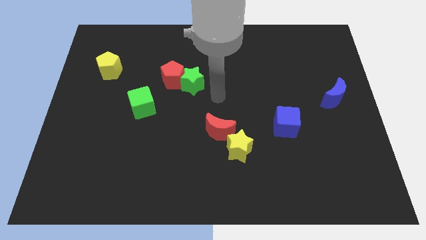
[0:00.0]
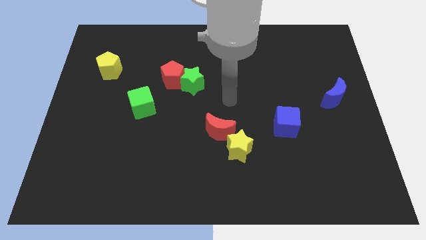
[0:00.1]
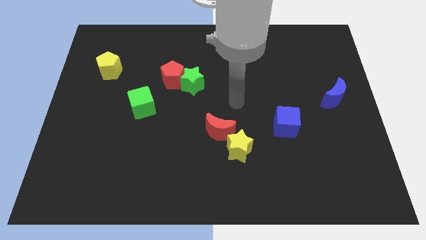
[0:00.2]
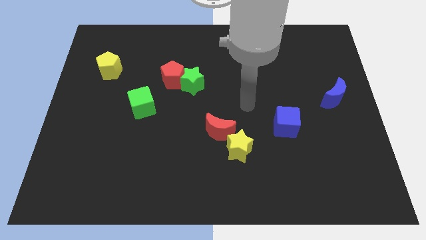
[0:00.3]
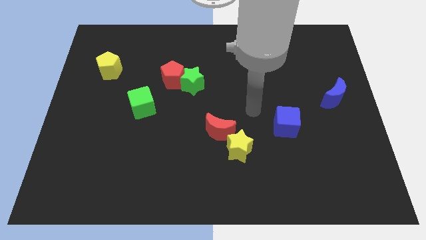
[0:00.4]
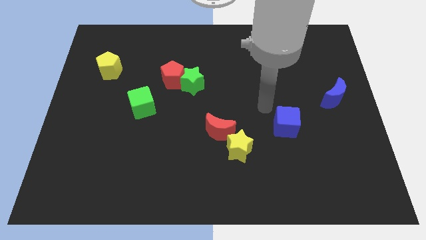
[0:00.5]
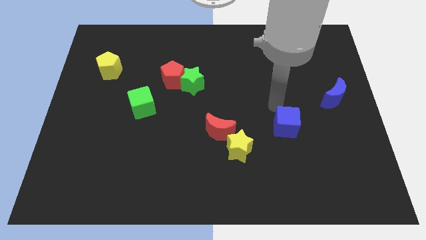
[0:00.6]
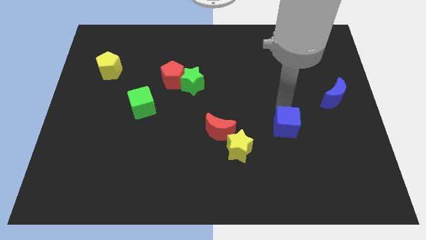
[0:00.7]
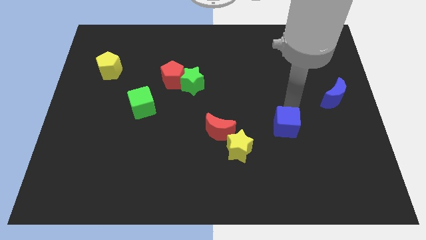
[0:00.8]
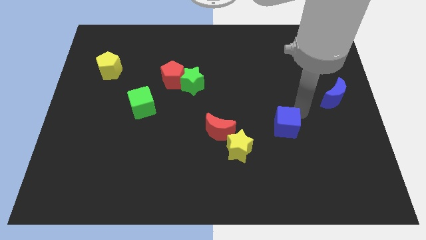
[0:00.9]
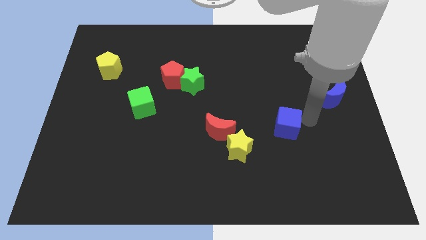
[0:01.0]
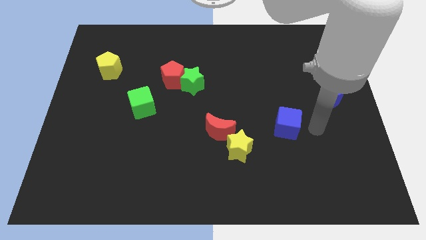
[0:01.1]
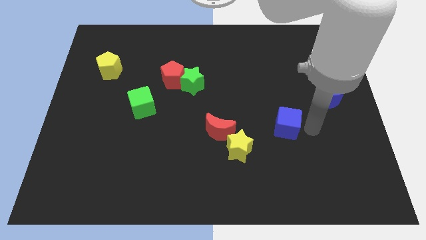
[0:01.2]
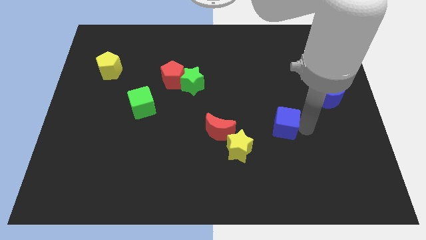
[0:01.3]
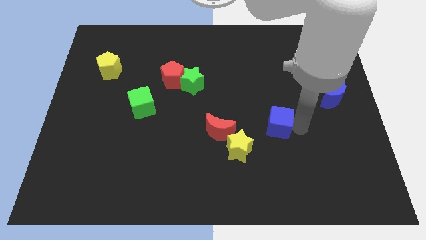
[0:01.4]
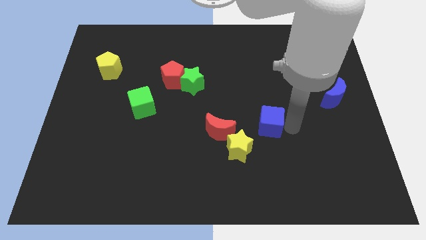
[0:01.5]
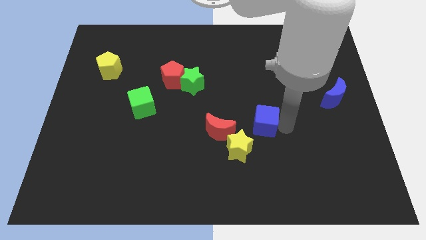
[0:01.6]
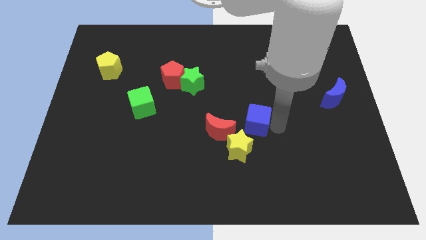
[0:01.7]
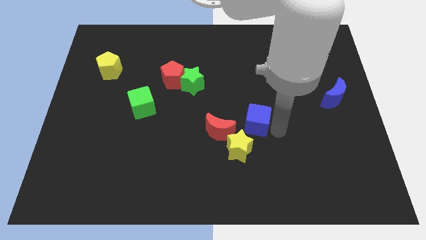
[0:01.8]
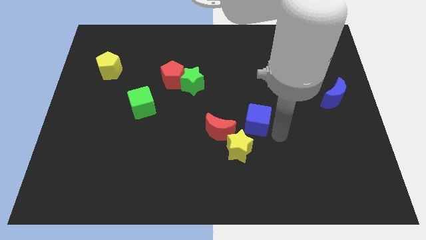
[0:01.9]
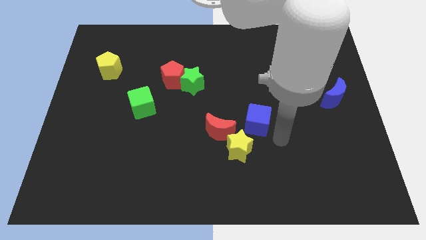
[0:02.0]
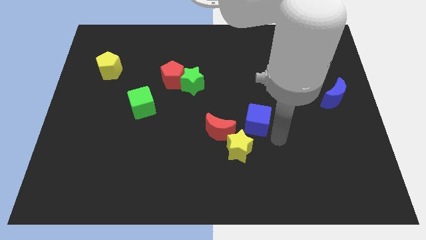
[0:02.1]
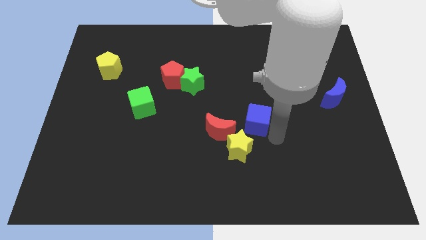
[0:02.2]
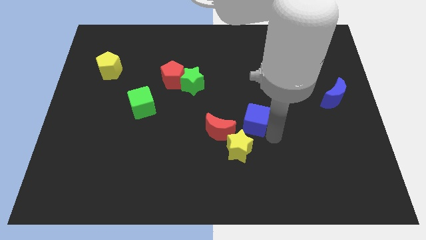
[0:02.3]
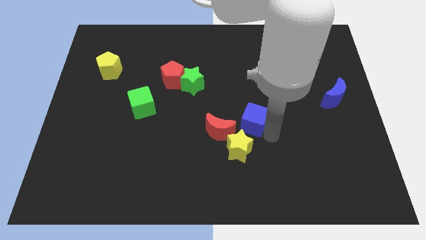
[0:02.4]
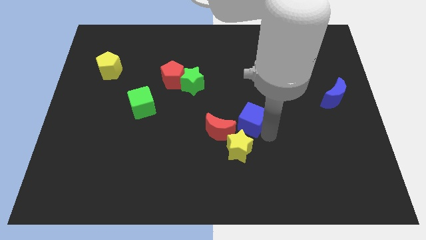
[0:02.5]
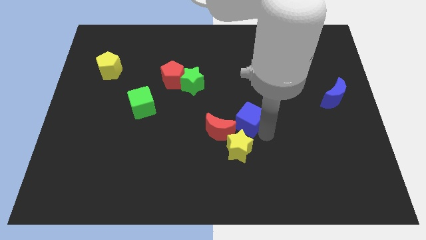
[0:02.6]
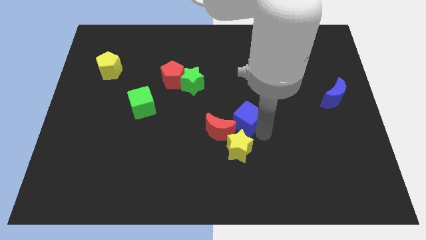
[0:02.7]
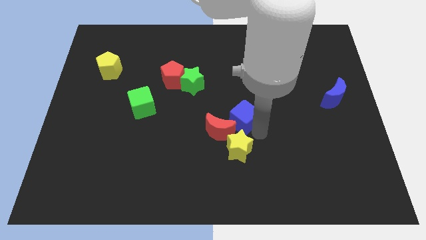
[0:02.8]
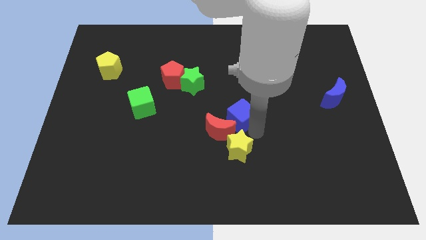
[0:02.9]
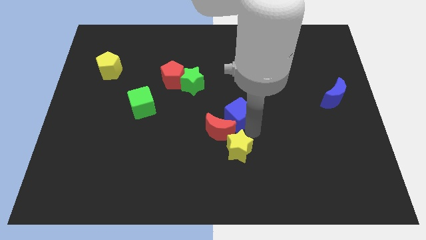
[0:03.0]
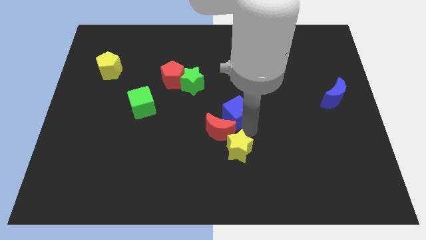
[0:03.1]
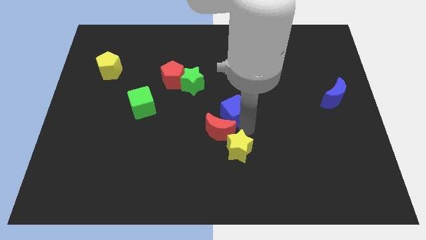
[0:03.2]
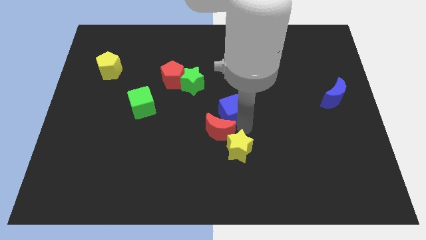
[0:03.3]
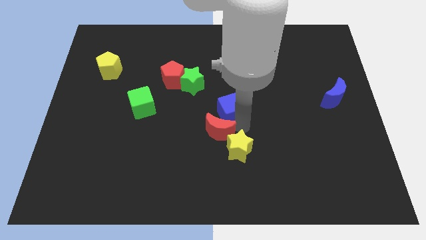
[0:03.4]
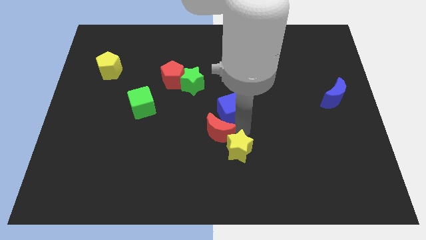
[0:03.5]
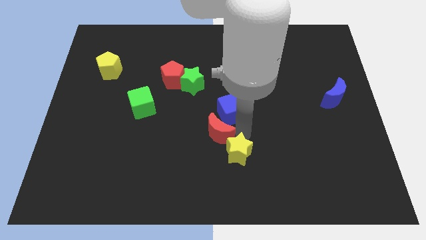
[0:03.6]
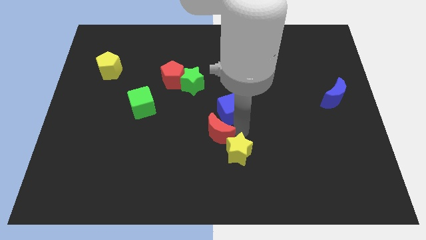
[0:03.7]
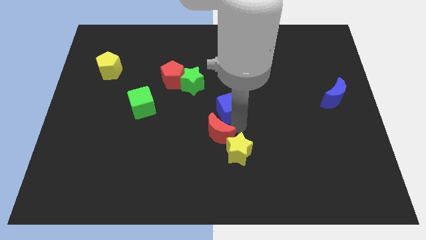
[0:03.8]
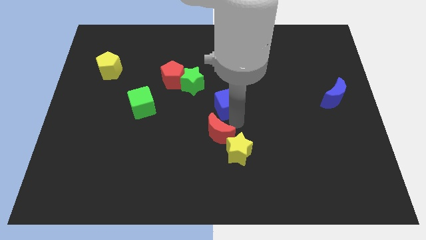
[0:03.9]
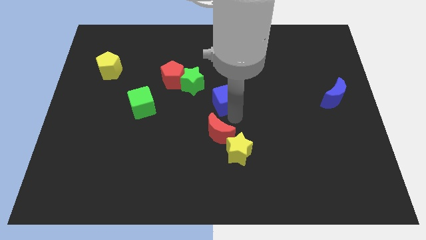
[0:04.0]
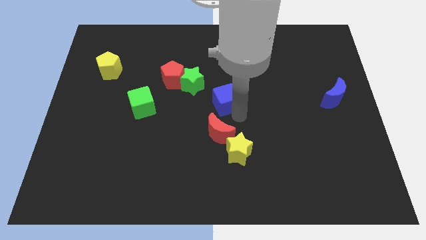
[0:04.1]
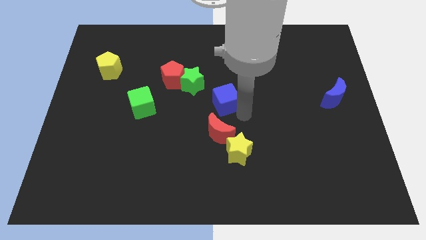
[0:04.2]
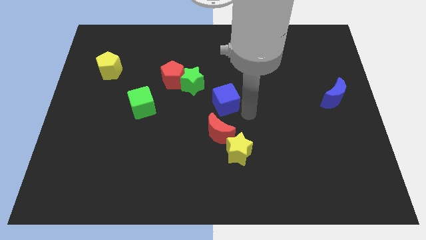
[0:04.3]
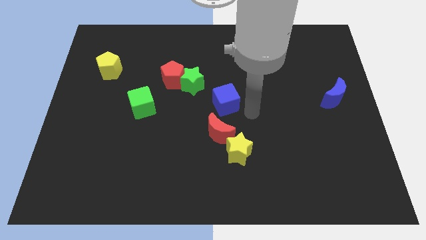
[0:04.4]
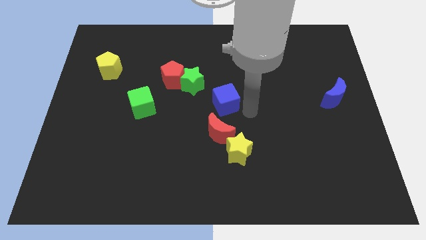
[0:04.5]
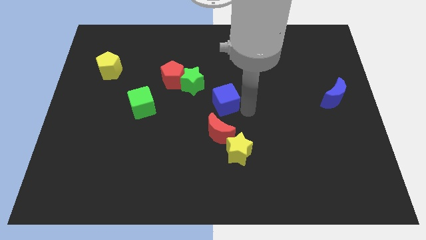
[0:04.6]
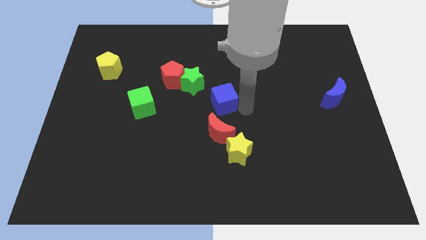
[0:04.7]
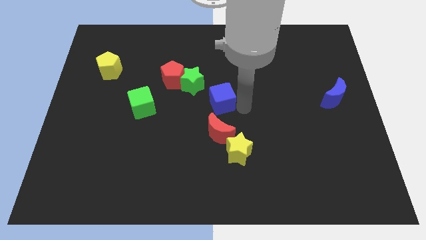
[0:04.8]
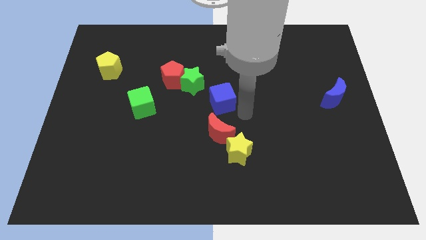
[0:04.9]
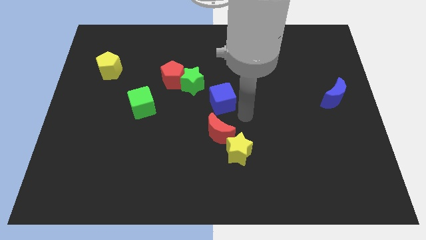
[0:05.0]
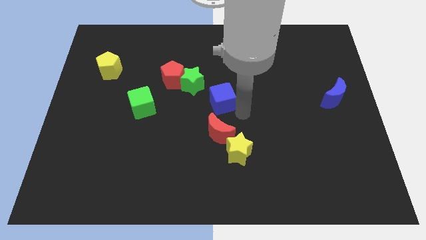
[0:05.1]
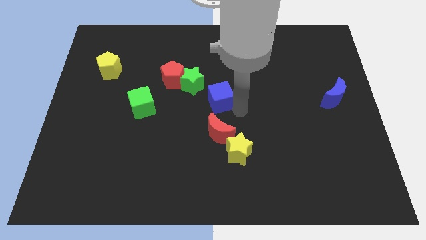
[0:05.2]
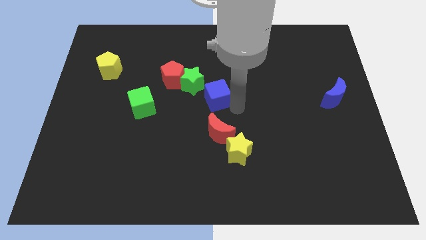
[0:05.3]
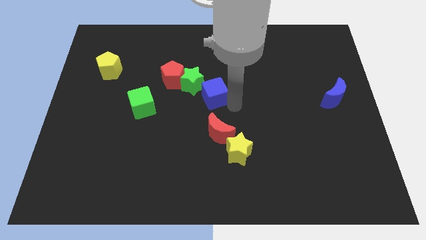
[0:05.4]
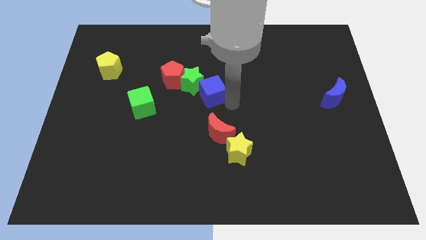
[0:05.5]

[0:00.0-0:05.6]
put the blue cube to the green star
